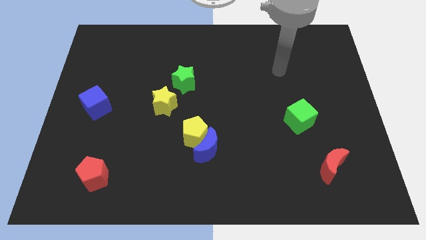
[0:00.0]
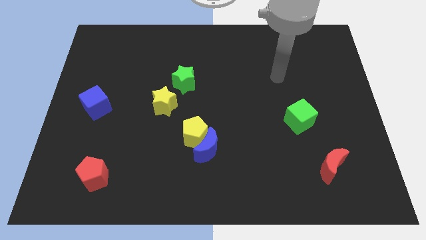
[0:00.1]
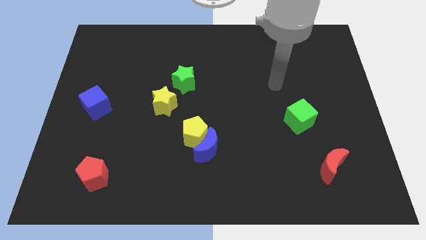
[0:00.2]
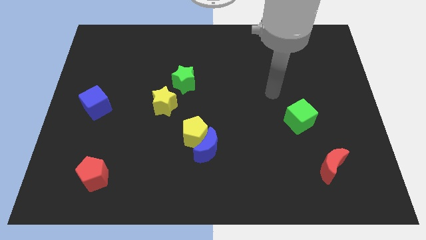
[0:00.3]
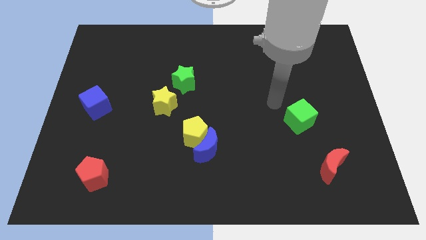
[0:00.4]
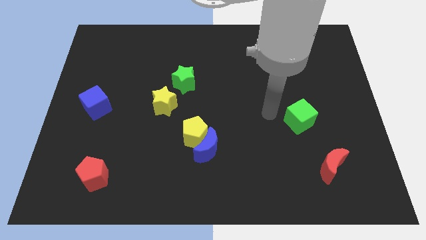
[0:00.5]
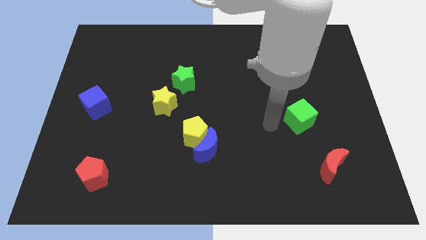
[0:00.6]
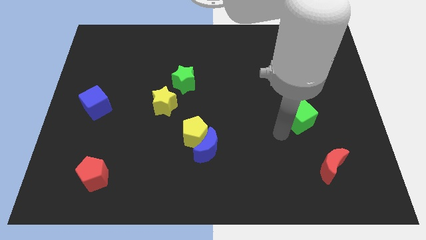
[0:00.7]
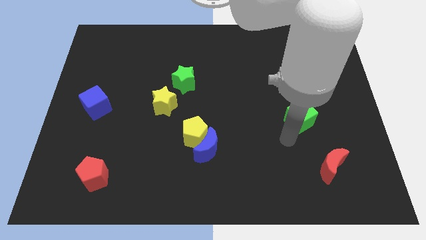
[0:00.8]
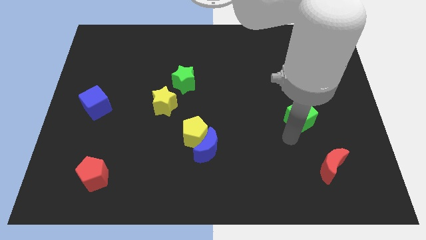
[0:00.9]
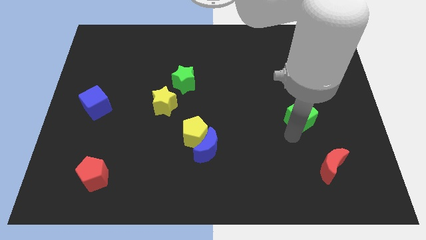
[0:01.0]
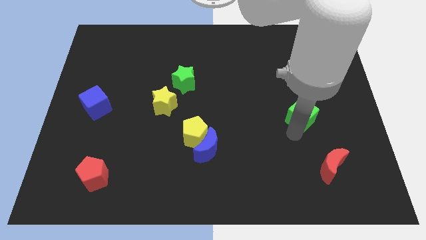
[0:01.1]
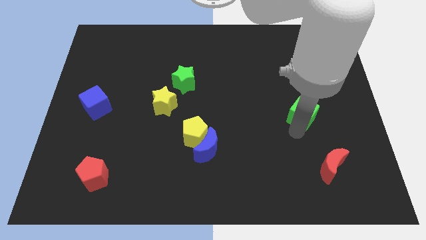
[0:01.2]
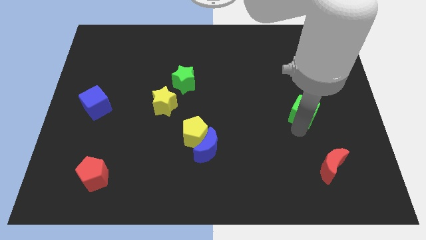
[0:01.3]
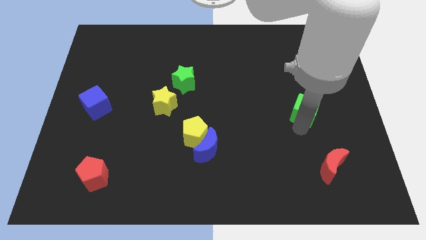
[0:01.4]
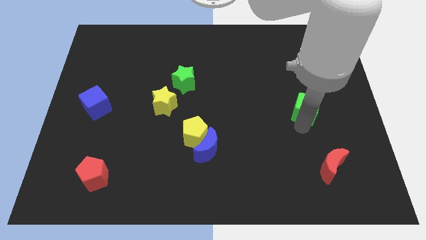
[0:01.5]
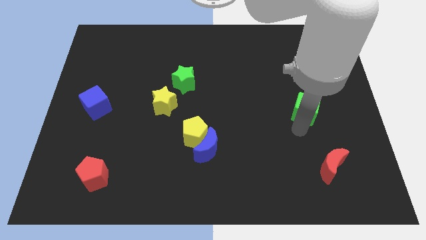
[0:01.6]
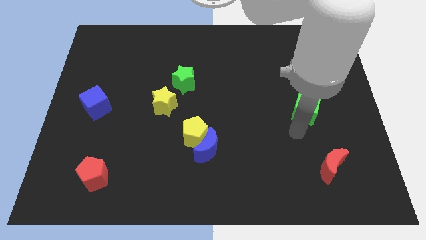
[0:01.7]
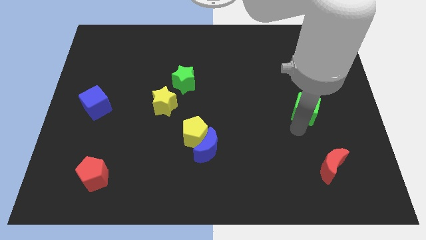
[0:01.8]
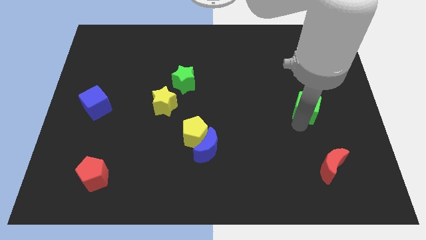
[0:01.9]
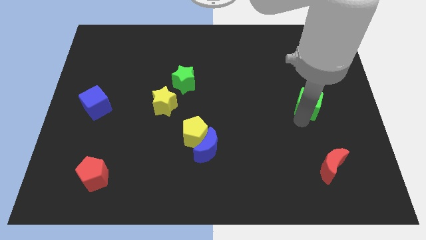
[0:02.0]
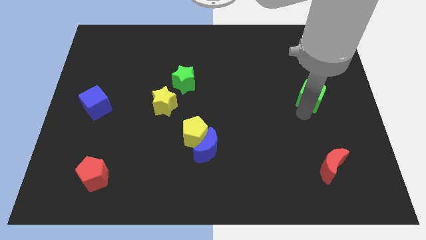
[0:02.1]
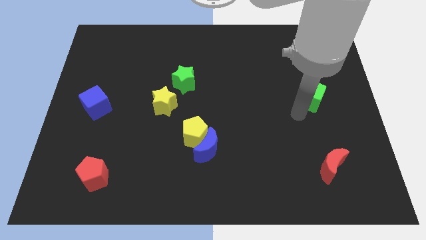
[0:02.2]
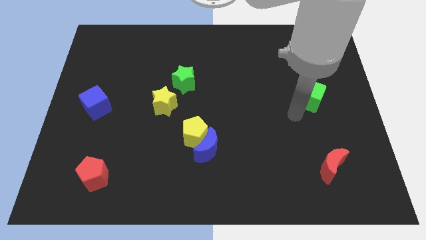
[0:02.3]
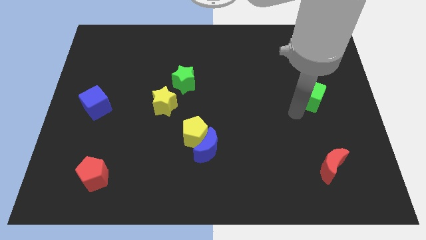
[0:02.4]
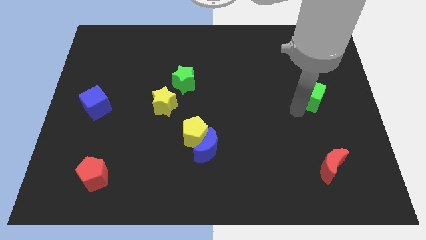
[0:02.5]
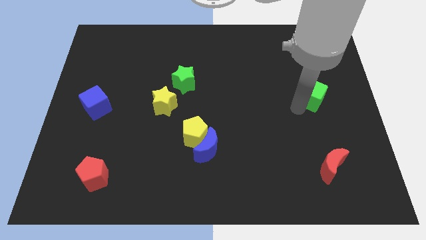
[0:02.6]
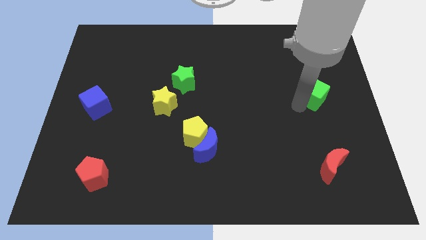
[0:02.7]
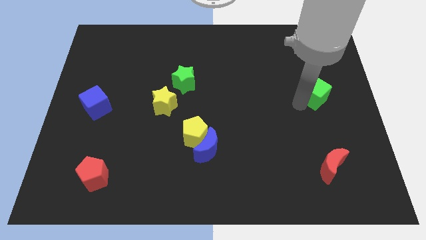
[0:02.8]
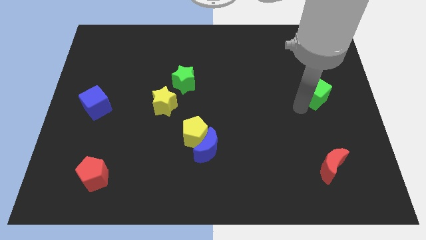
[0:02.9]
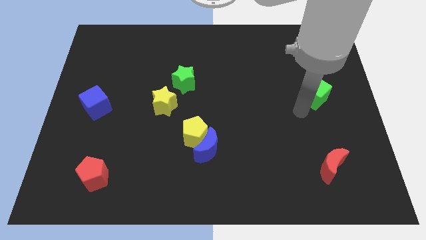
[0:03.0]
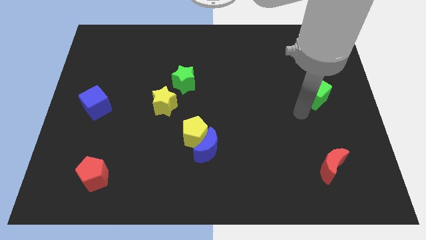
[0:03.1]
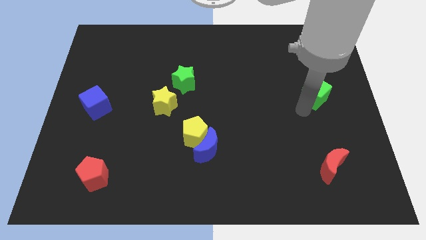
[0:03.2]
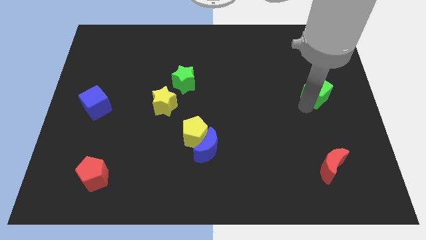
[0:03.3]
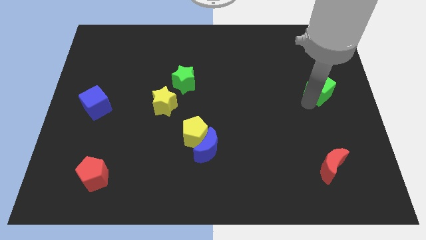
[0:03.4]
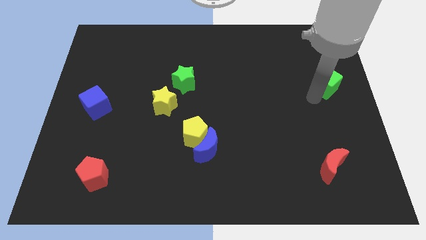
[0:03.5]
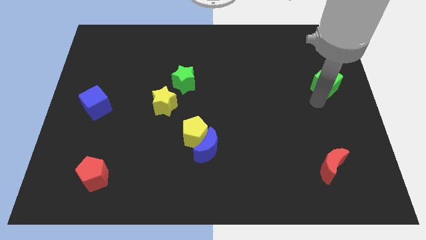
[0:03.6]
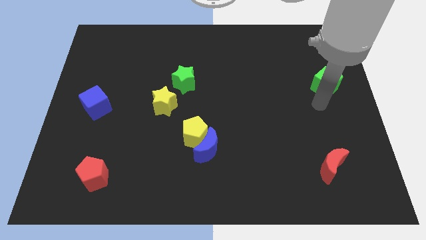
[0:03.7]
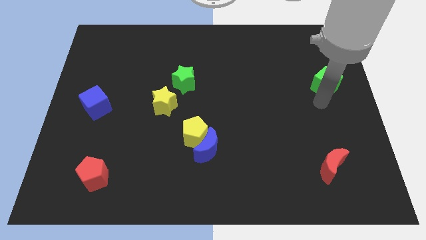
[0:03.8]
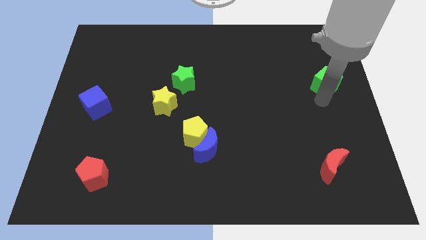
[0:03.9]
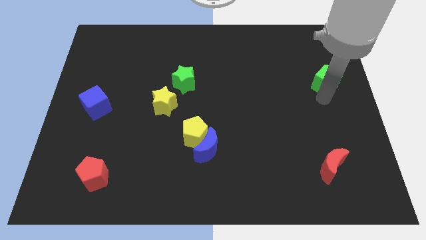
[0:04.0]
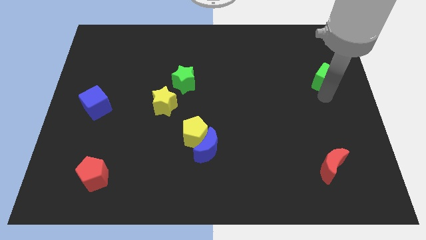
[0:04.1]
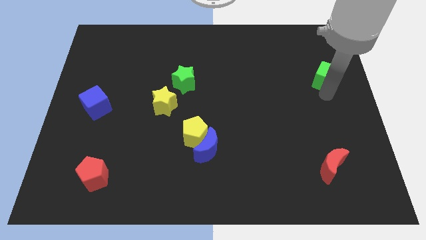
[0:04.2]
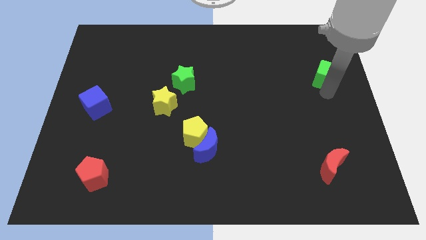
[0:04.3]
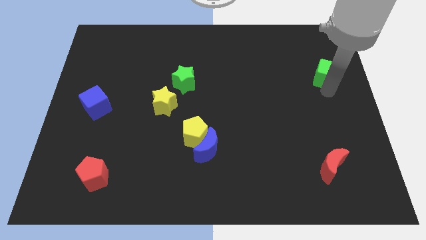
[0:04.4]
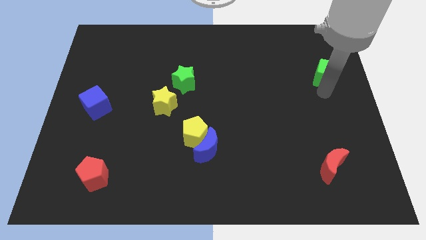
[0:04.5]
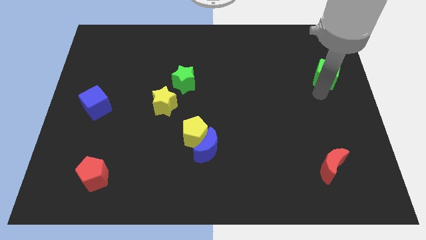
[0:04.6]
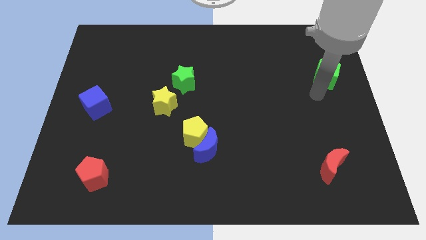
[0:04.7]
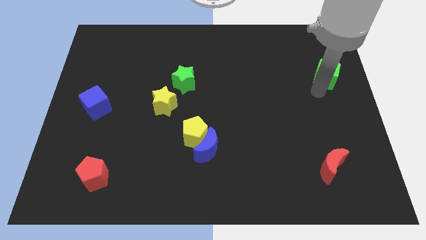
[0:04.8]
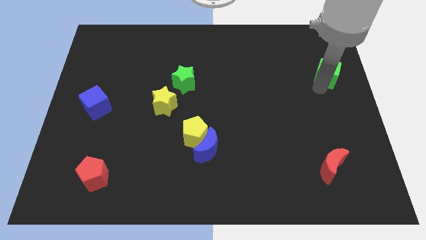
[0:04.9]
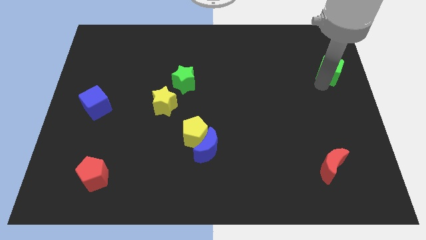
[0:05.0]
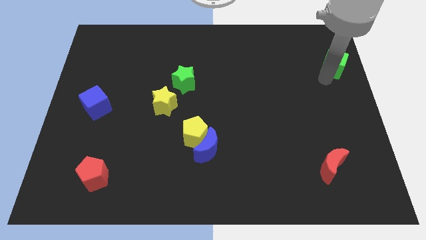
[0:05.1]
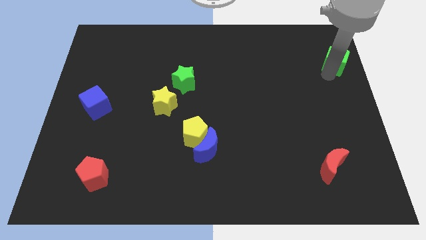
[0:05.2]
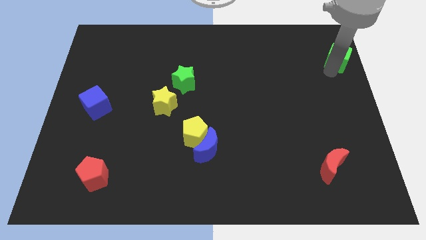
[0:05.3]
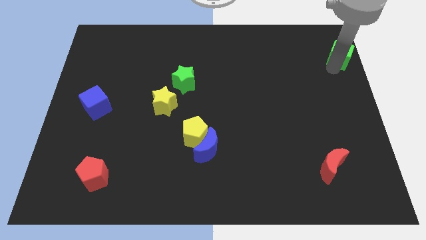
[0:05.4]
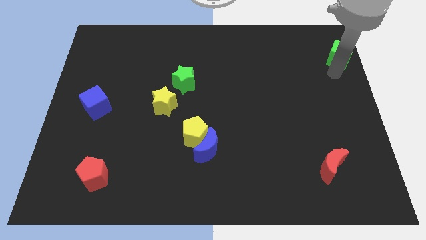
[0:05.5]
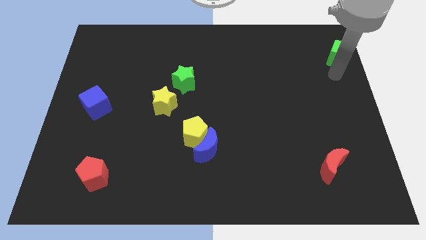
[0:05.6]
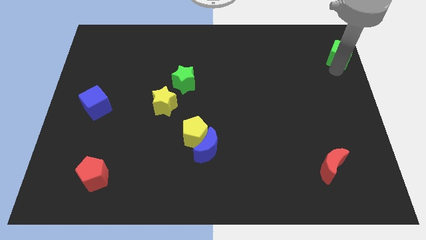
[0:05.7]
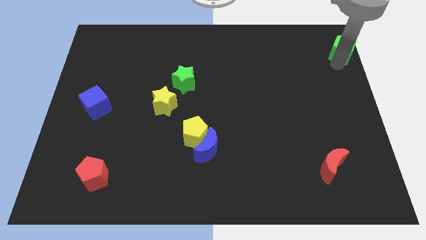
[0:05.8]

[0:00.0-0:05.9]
move the green cube to the upper right corner
